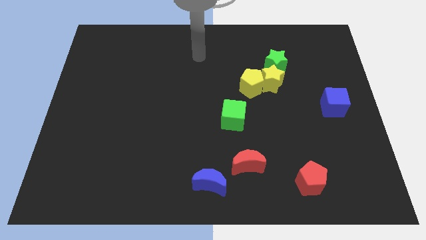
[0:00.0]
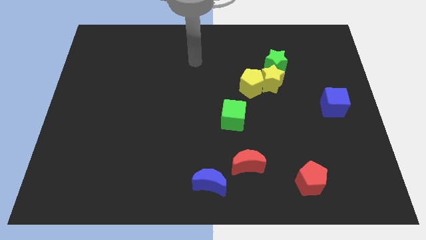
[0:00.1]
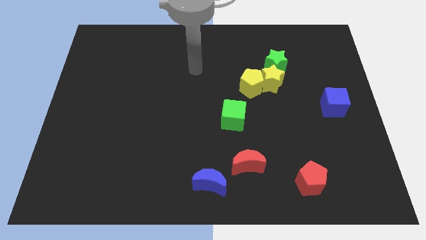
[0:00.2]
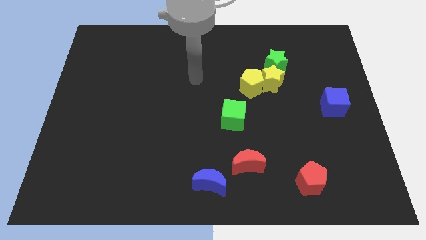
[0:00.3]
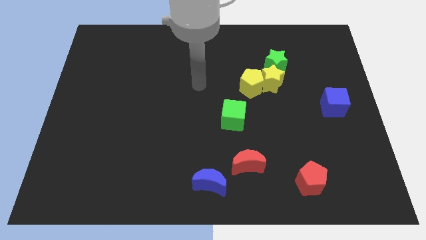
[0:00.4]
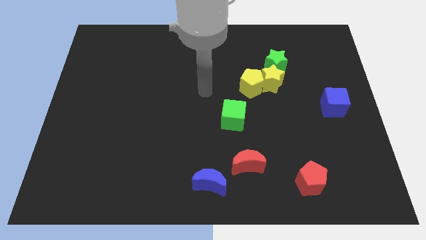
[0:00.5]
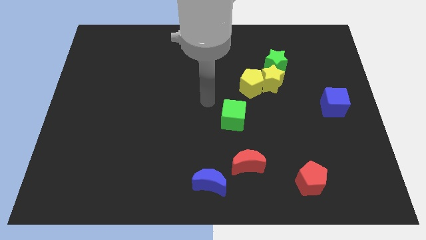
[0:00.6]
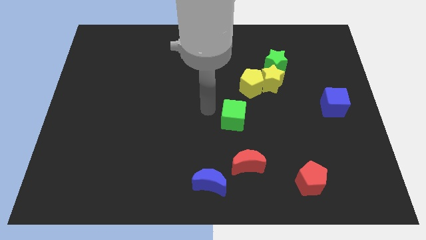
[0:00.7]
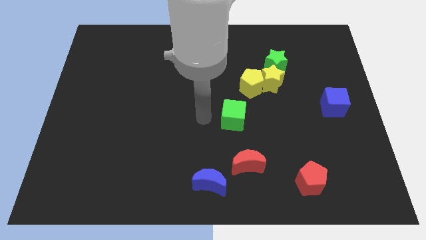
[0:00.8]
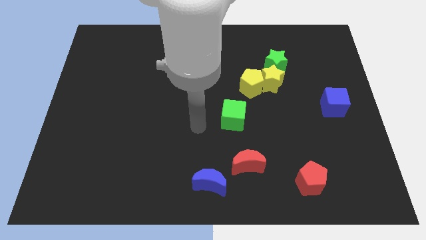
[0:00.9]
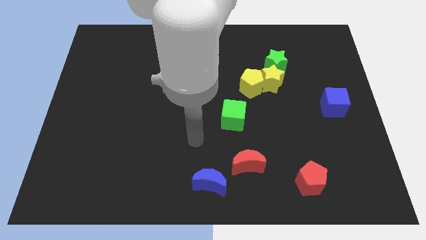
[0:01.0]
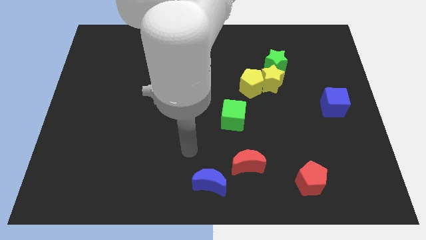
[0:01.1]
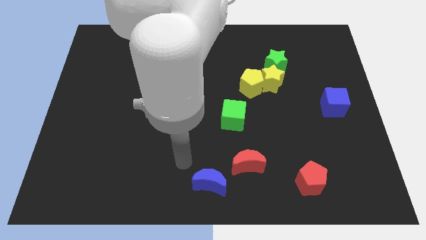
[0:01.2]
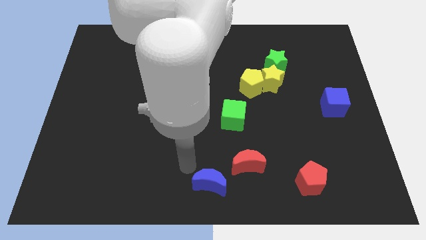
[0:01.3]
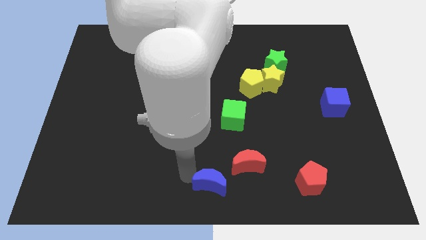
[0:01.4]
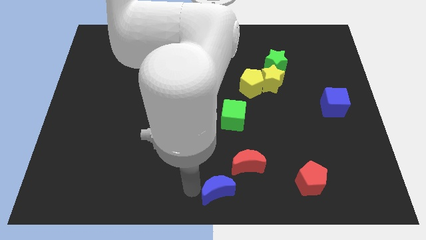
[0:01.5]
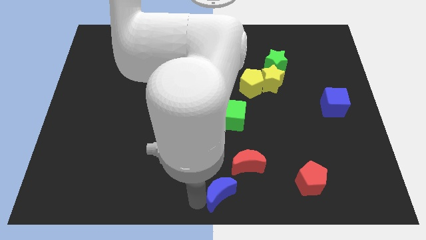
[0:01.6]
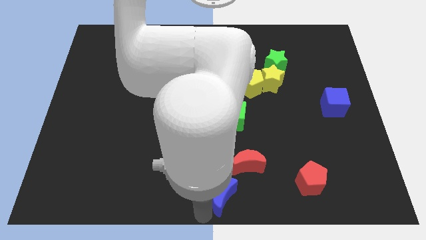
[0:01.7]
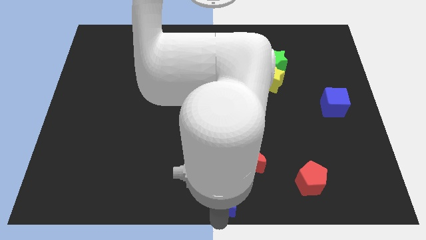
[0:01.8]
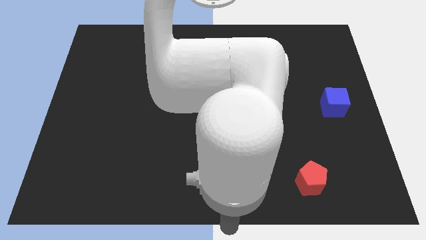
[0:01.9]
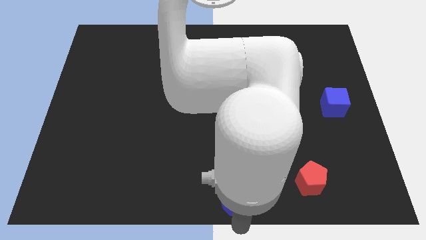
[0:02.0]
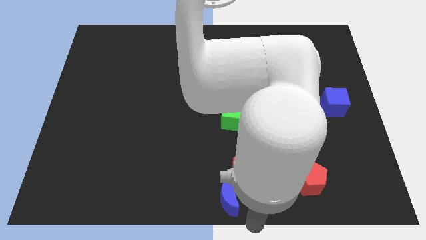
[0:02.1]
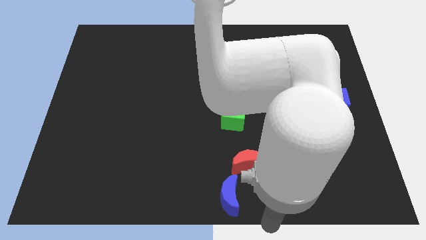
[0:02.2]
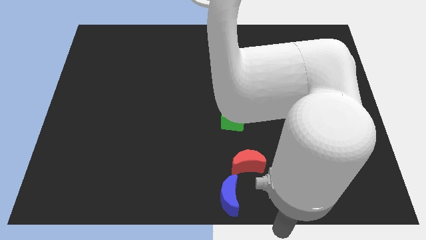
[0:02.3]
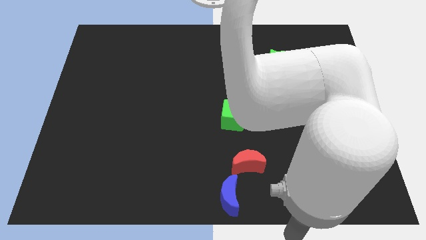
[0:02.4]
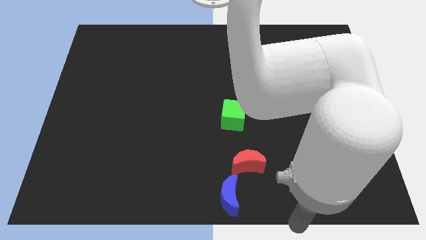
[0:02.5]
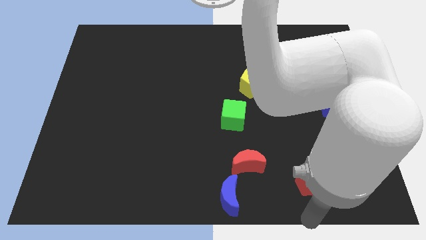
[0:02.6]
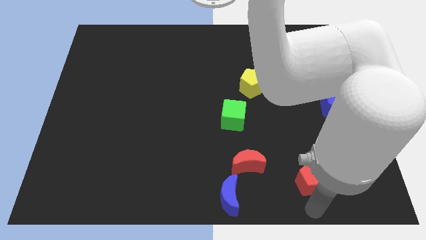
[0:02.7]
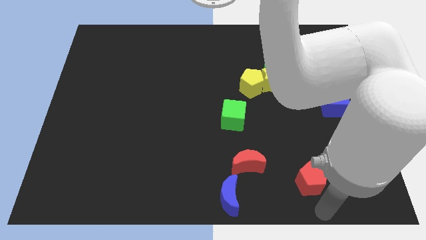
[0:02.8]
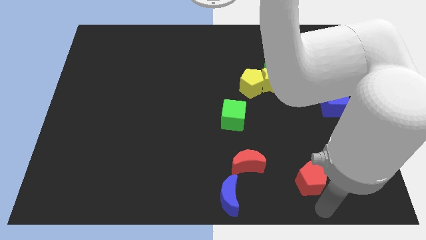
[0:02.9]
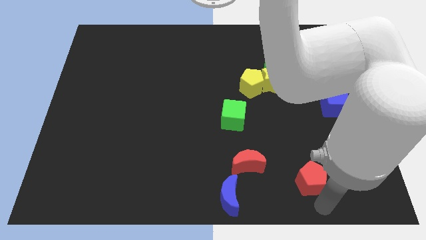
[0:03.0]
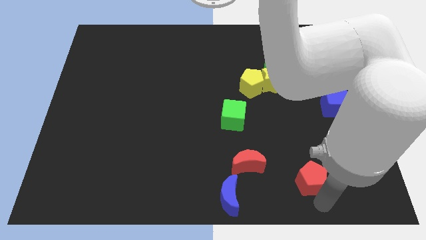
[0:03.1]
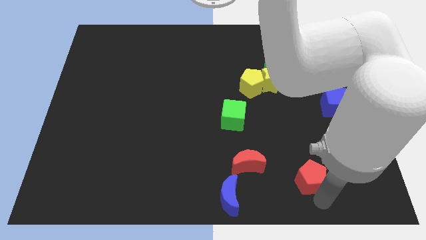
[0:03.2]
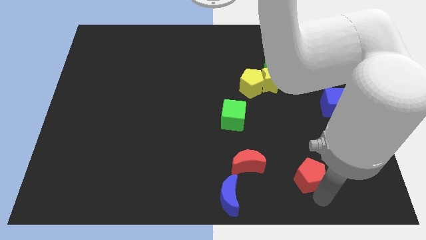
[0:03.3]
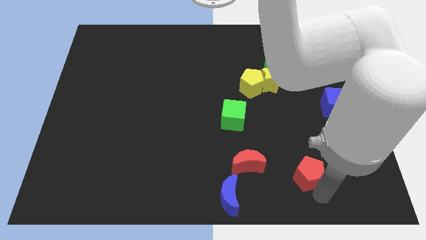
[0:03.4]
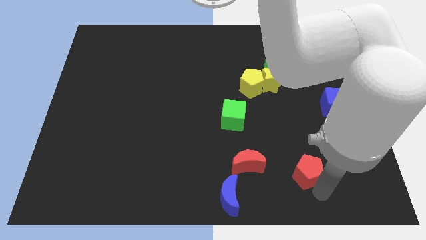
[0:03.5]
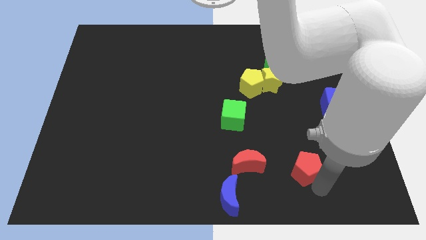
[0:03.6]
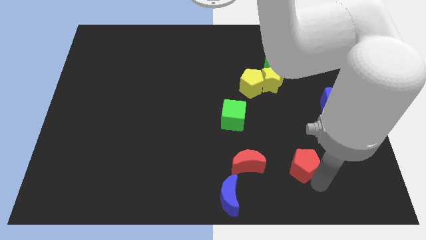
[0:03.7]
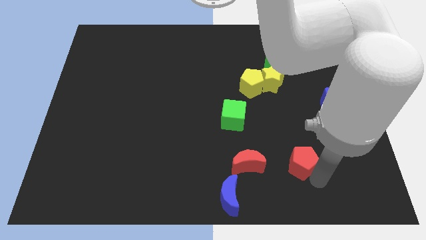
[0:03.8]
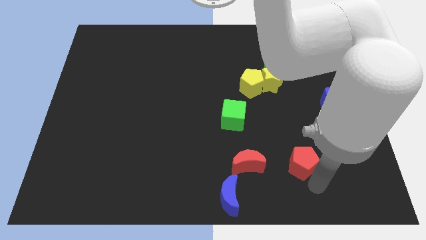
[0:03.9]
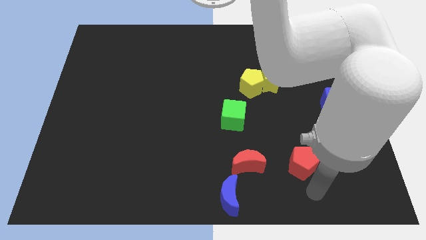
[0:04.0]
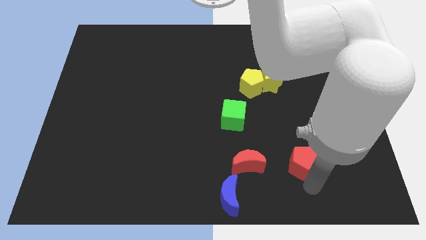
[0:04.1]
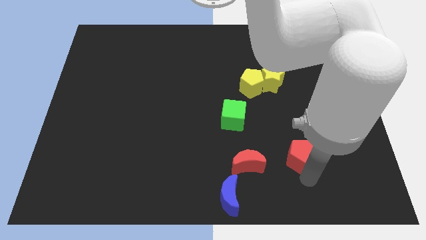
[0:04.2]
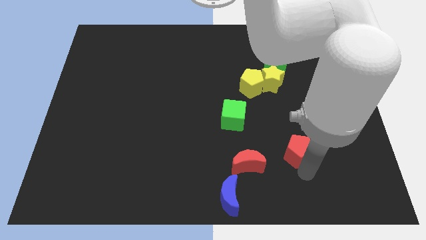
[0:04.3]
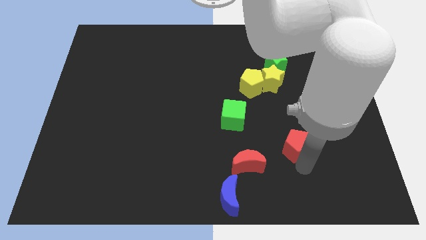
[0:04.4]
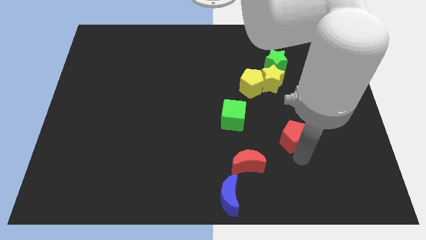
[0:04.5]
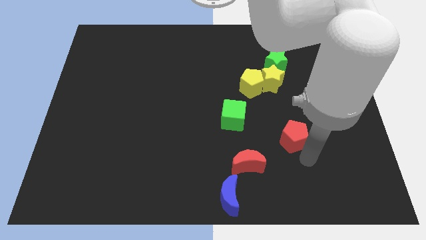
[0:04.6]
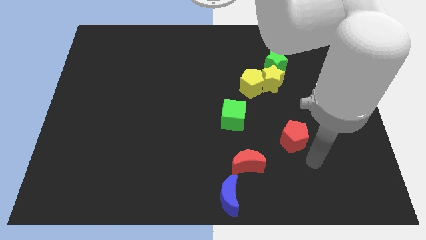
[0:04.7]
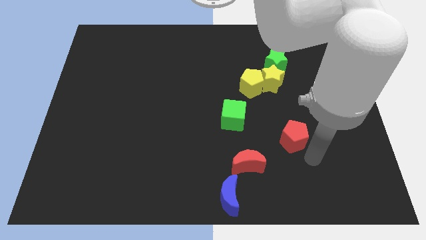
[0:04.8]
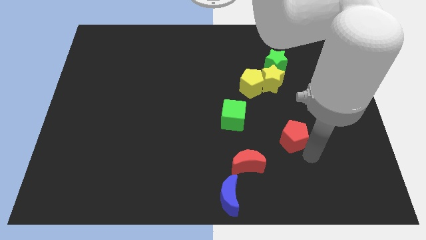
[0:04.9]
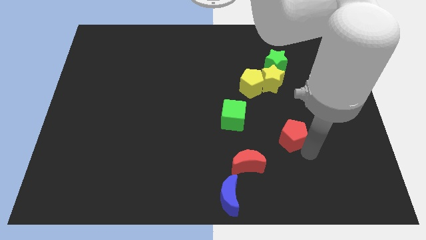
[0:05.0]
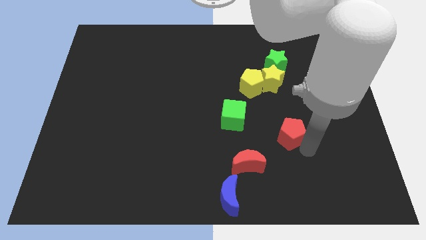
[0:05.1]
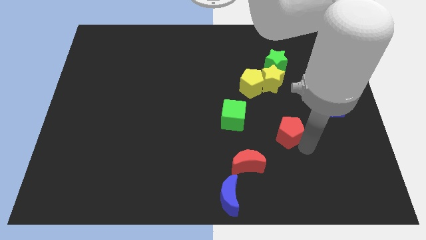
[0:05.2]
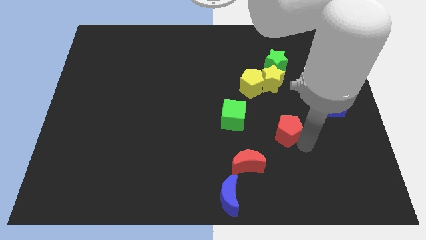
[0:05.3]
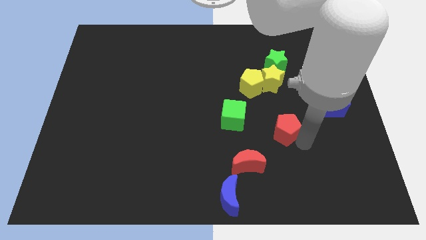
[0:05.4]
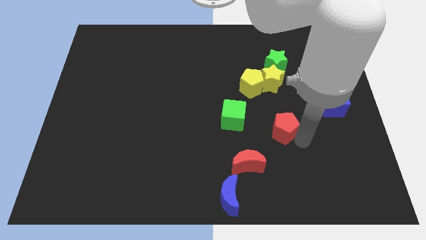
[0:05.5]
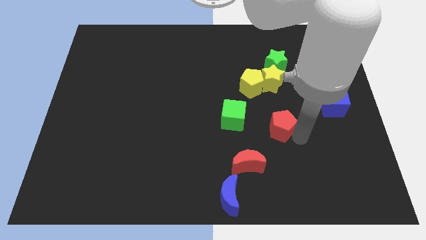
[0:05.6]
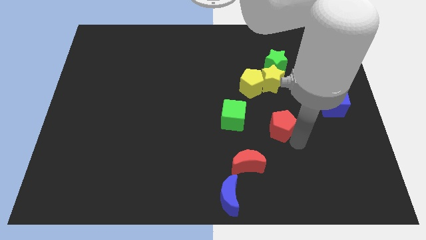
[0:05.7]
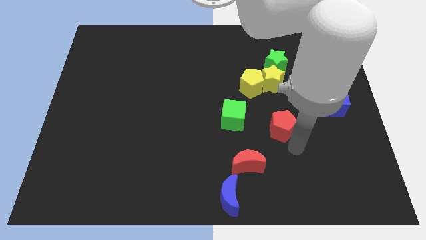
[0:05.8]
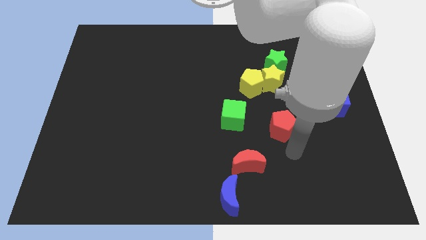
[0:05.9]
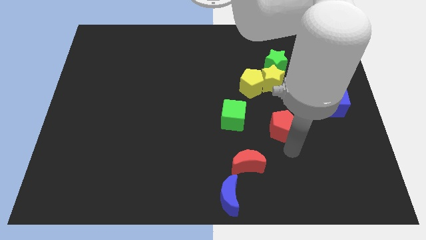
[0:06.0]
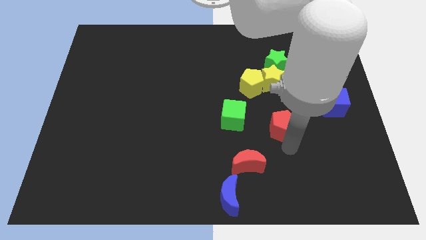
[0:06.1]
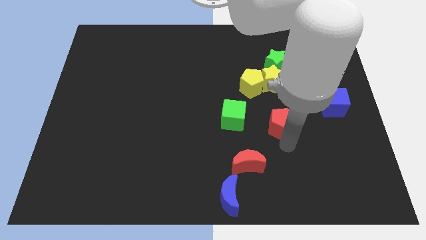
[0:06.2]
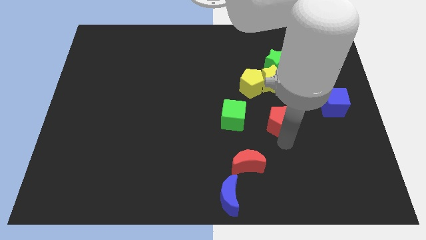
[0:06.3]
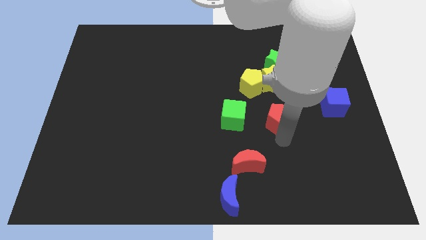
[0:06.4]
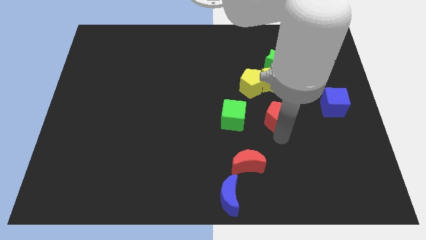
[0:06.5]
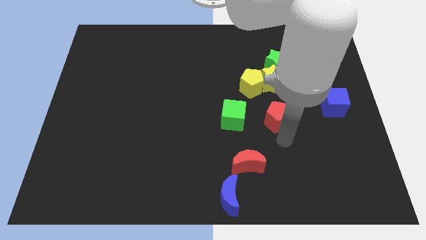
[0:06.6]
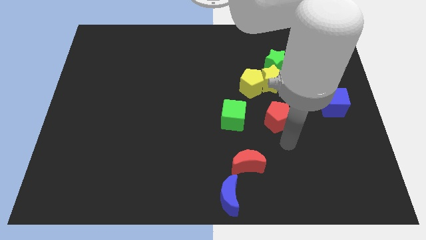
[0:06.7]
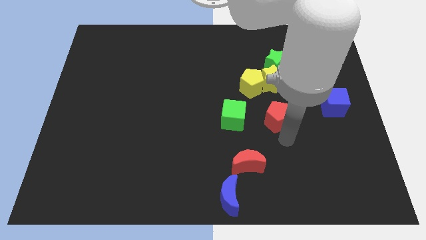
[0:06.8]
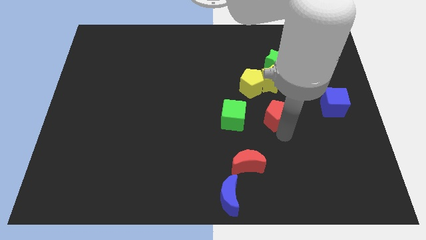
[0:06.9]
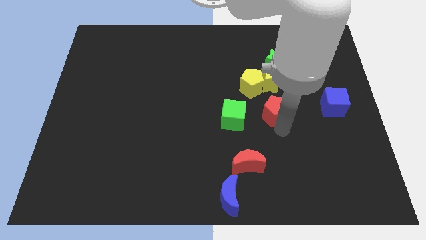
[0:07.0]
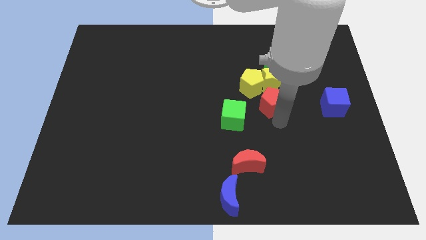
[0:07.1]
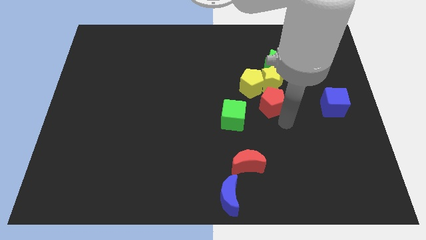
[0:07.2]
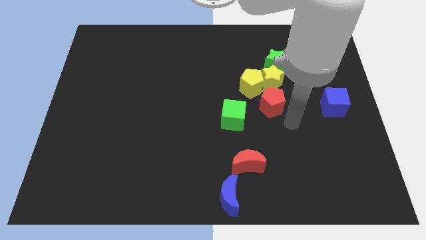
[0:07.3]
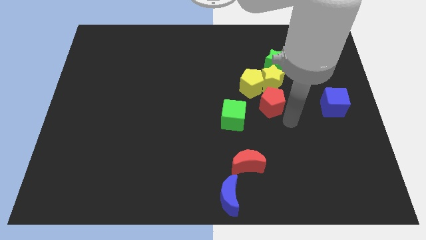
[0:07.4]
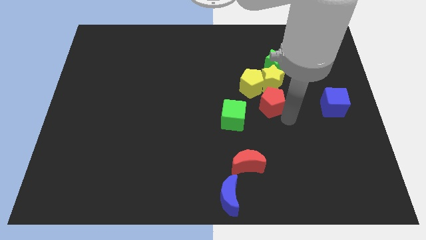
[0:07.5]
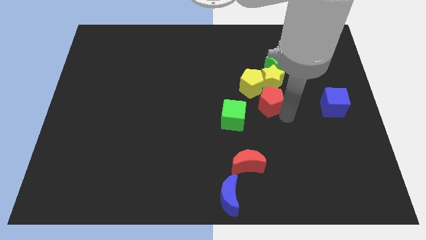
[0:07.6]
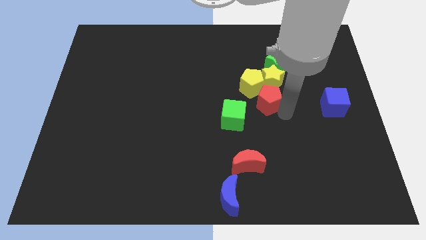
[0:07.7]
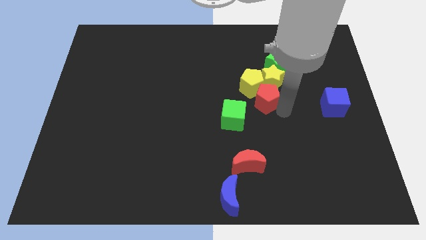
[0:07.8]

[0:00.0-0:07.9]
slide the red pentagon next to the yellow pentagon
